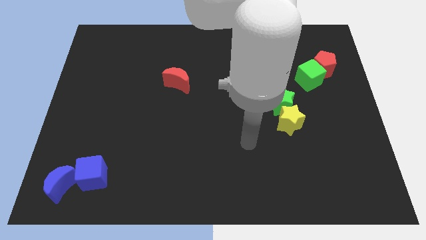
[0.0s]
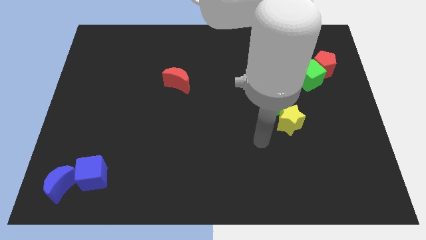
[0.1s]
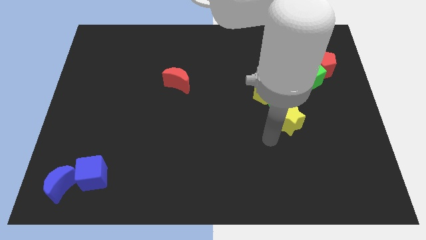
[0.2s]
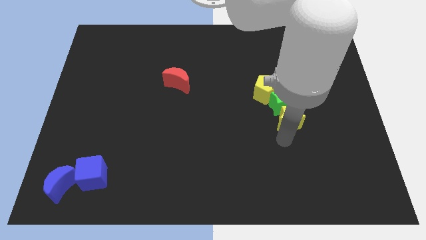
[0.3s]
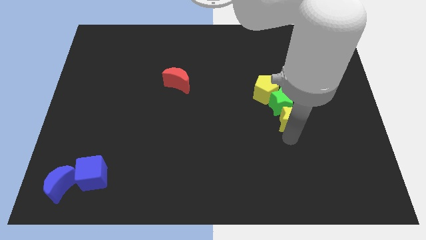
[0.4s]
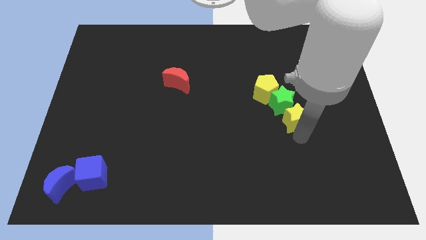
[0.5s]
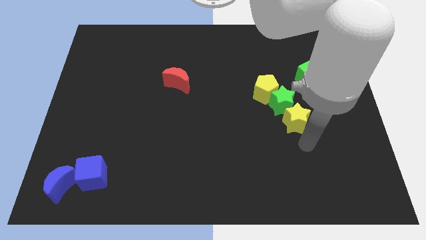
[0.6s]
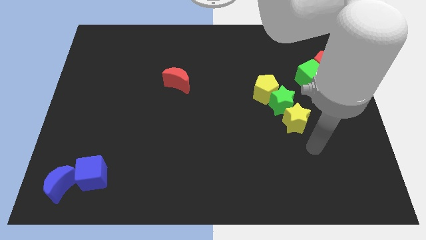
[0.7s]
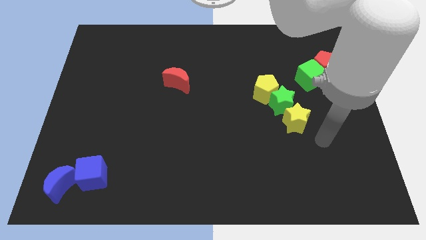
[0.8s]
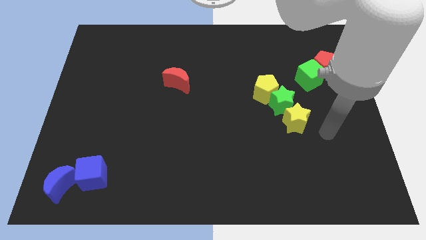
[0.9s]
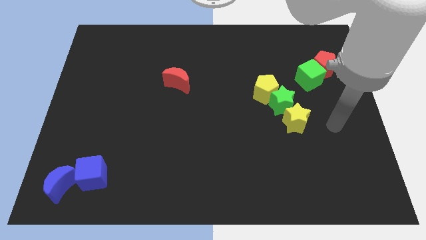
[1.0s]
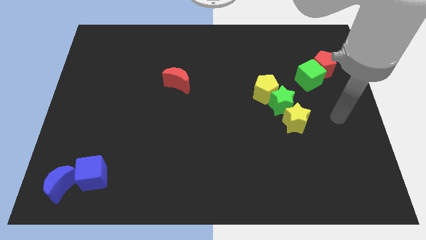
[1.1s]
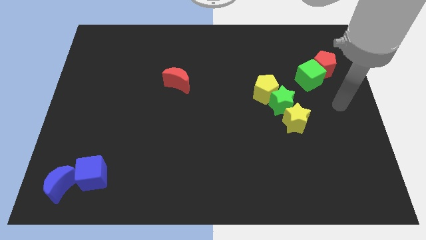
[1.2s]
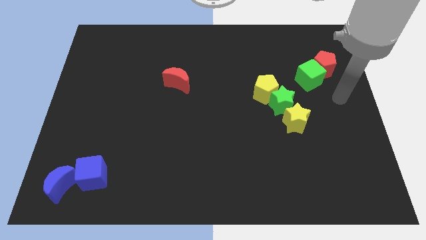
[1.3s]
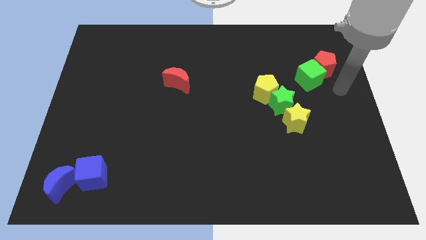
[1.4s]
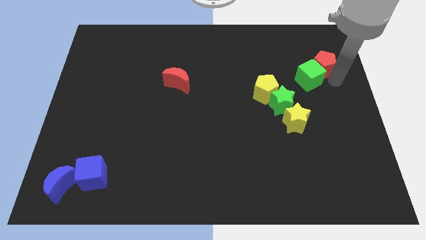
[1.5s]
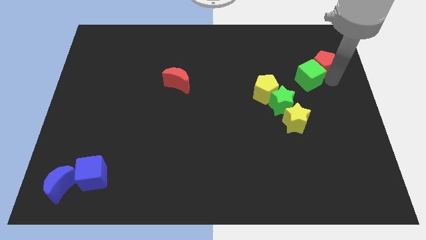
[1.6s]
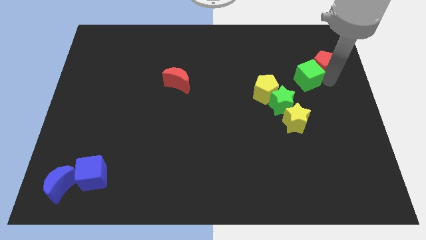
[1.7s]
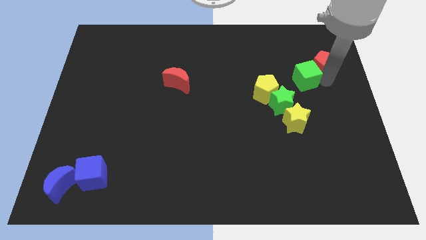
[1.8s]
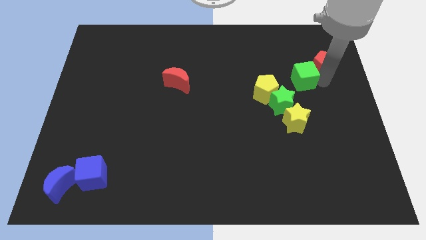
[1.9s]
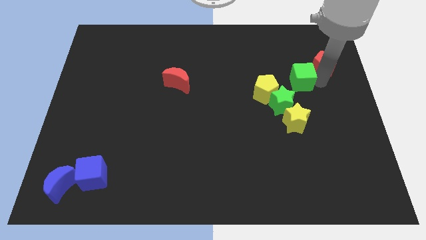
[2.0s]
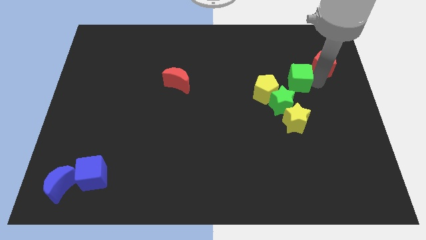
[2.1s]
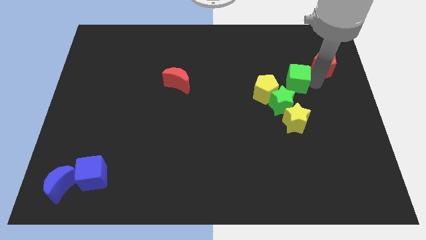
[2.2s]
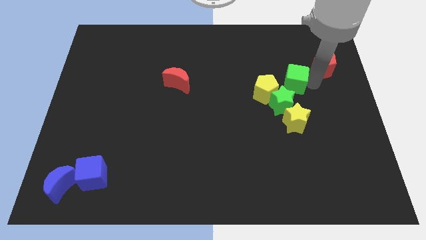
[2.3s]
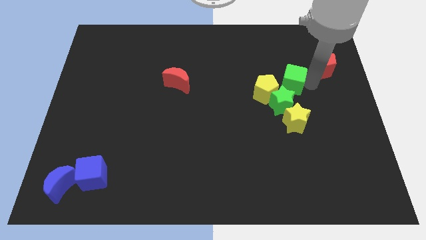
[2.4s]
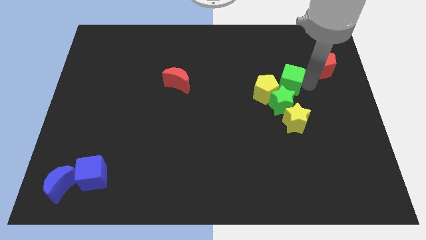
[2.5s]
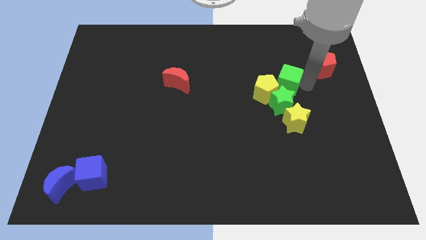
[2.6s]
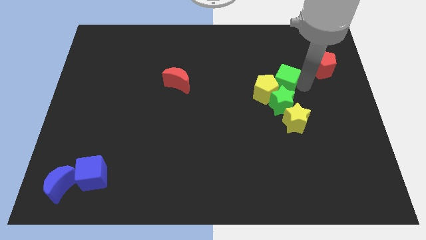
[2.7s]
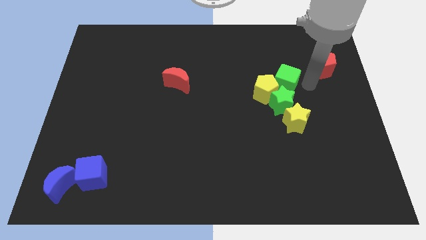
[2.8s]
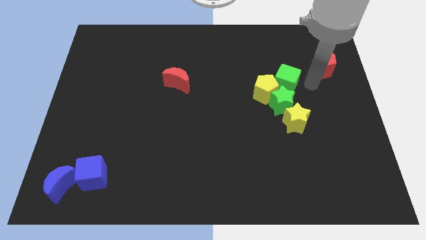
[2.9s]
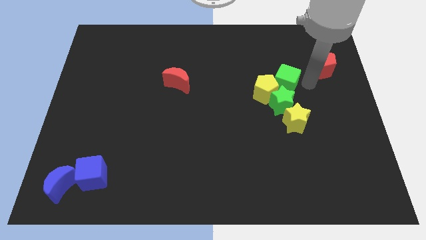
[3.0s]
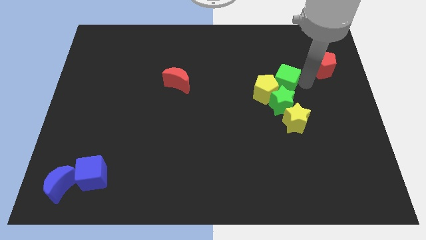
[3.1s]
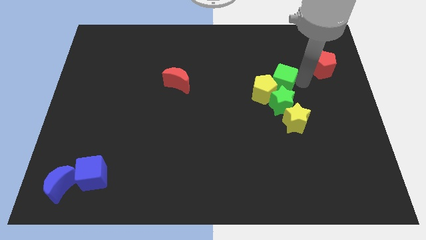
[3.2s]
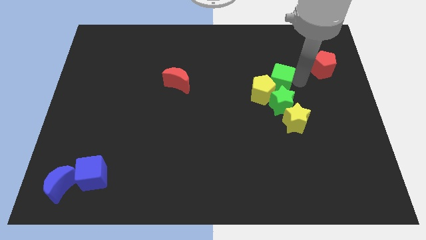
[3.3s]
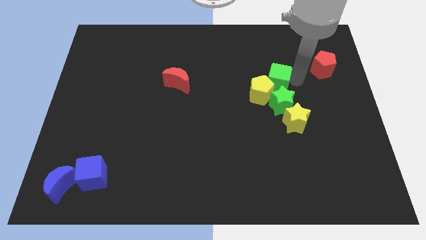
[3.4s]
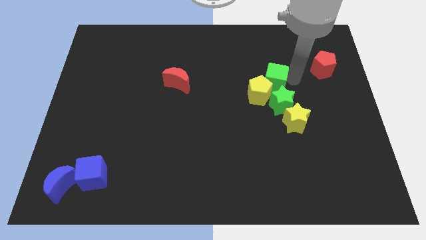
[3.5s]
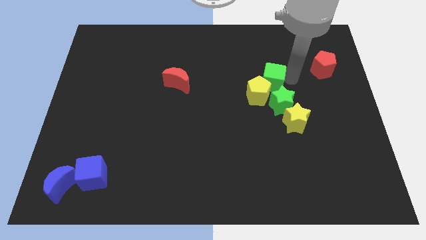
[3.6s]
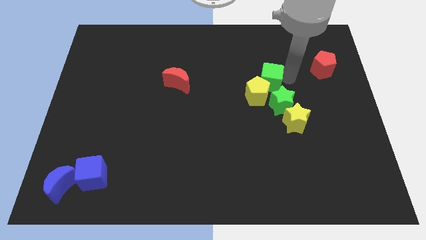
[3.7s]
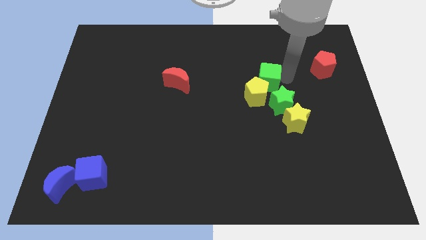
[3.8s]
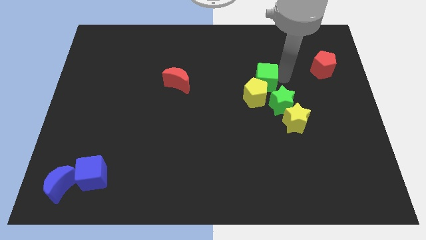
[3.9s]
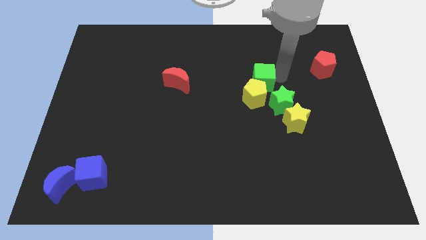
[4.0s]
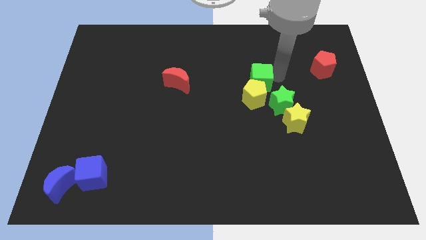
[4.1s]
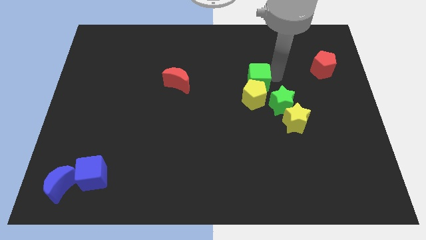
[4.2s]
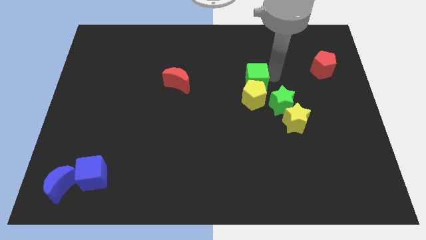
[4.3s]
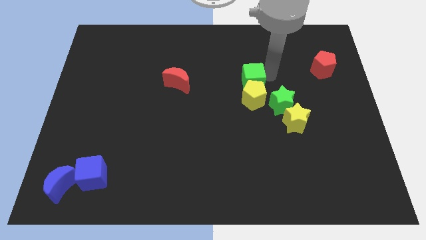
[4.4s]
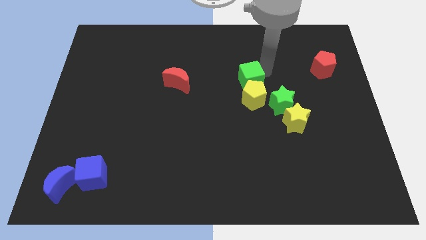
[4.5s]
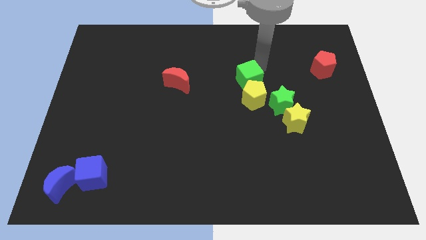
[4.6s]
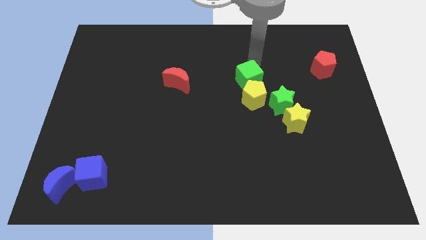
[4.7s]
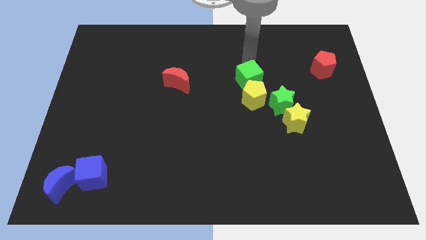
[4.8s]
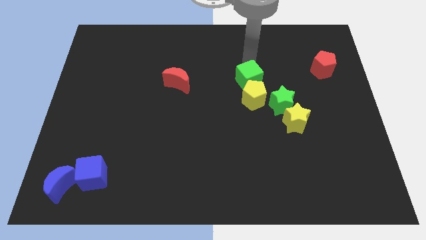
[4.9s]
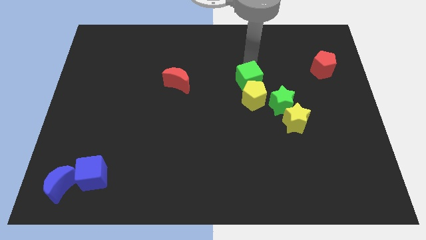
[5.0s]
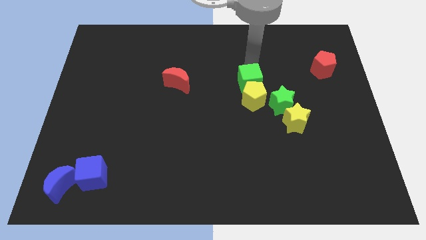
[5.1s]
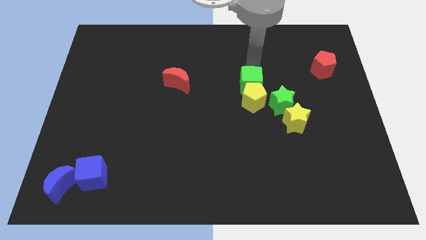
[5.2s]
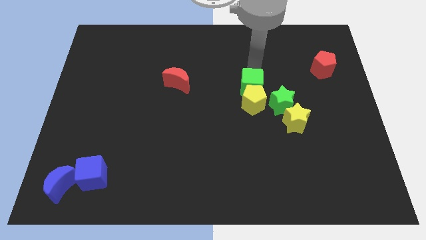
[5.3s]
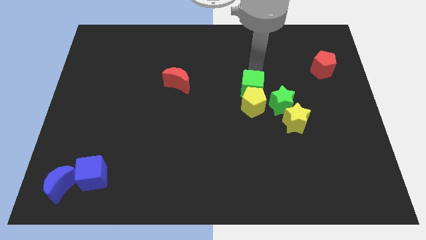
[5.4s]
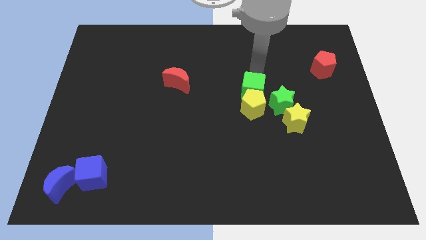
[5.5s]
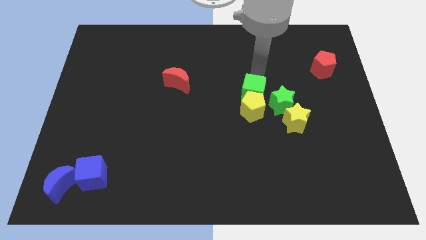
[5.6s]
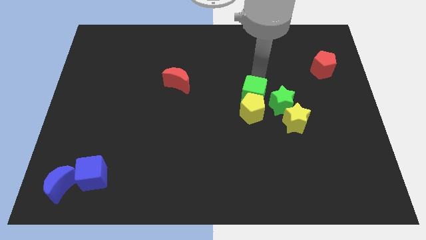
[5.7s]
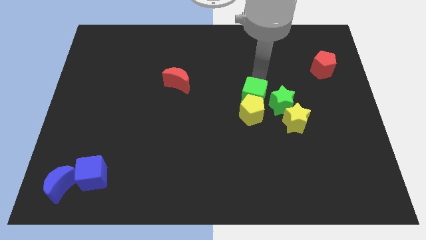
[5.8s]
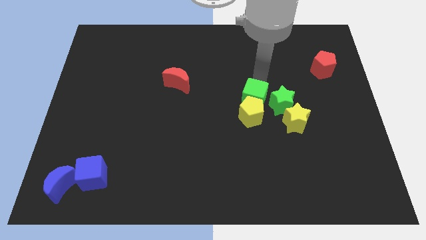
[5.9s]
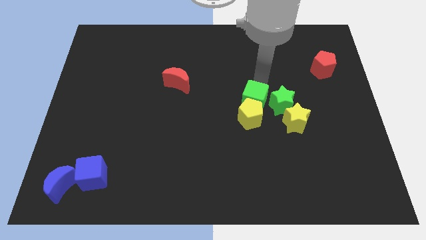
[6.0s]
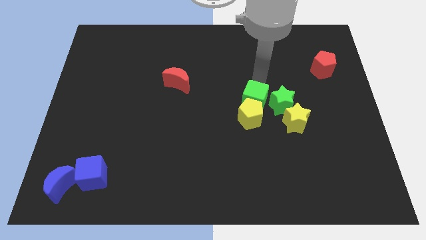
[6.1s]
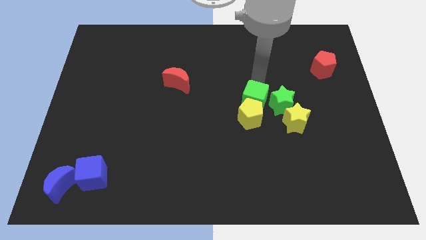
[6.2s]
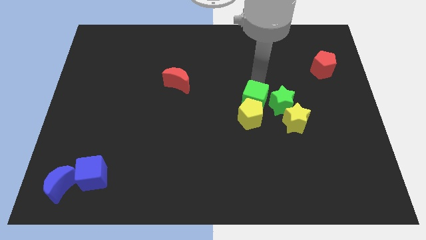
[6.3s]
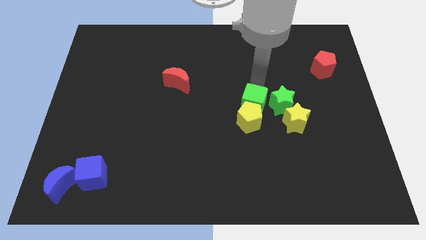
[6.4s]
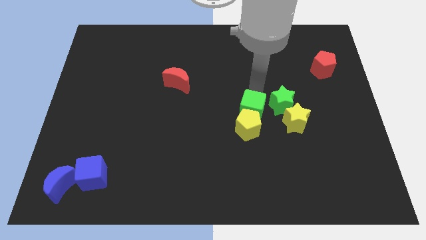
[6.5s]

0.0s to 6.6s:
put the green cube just left of the yellow star

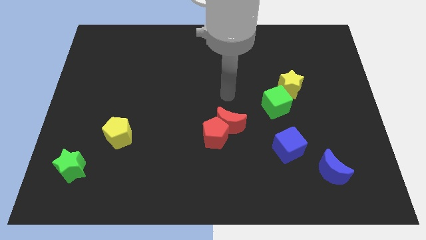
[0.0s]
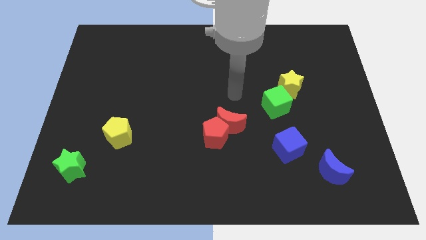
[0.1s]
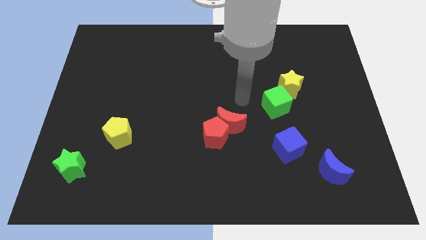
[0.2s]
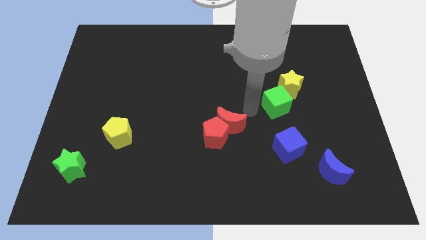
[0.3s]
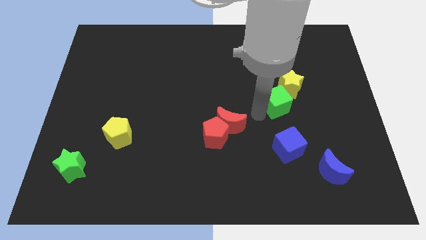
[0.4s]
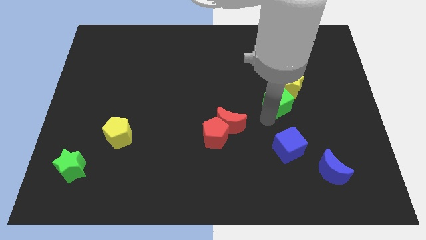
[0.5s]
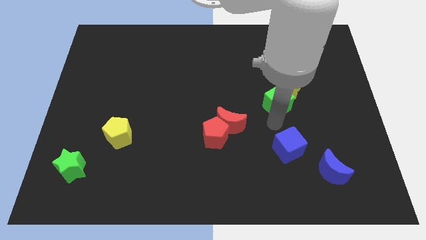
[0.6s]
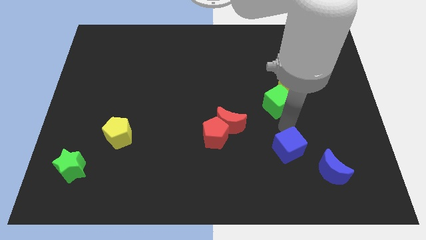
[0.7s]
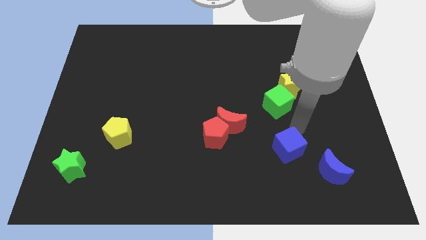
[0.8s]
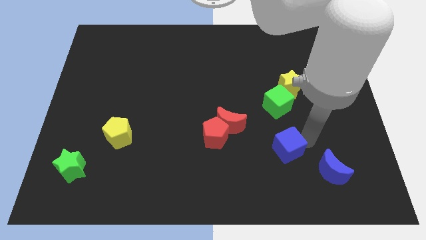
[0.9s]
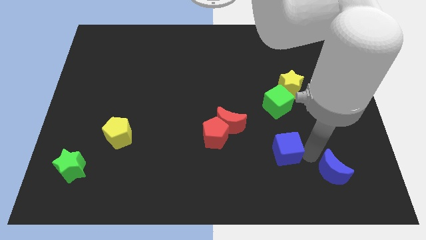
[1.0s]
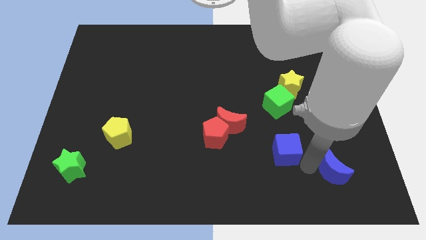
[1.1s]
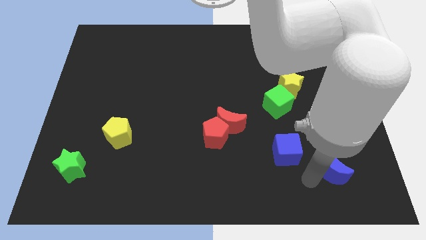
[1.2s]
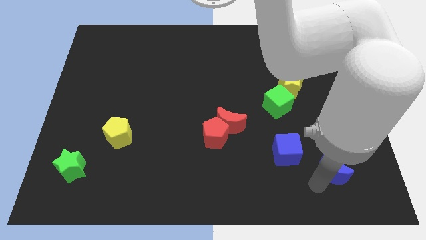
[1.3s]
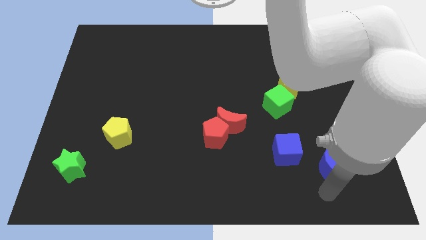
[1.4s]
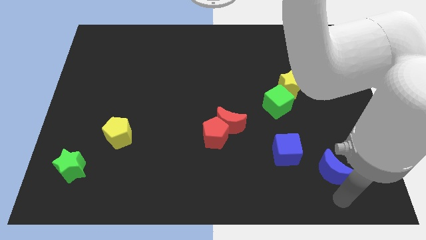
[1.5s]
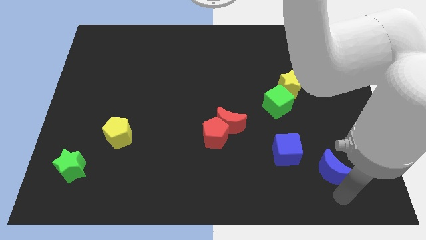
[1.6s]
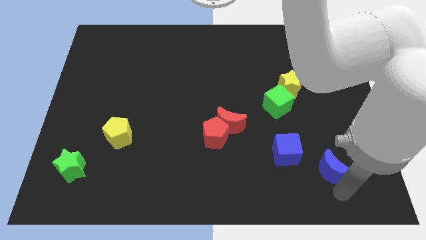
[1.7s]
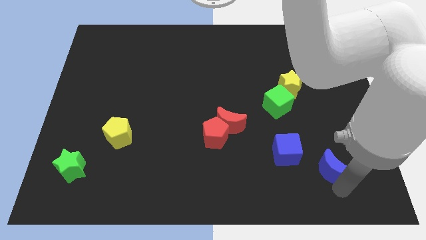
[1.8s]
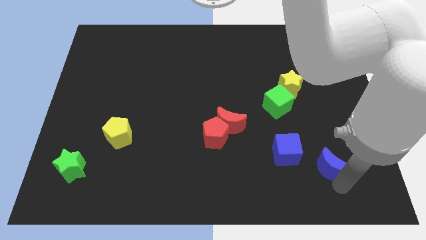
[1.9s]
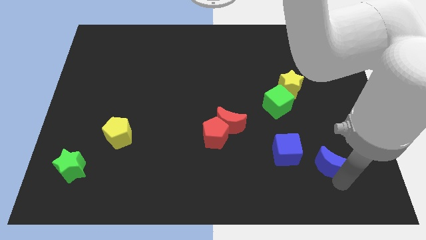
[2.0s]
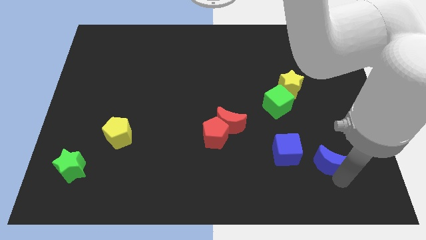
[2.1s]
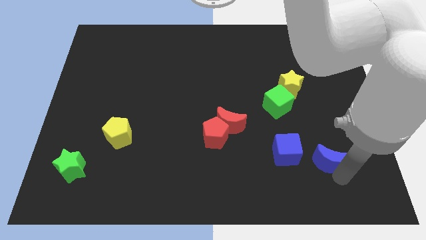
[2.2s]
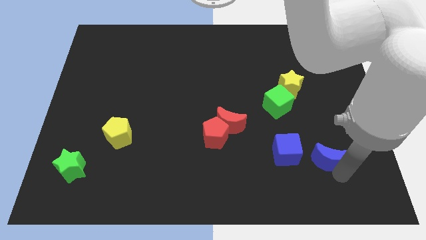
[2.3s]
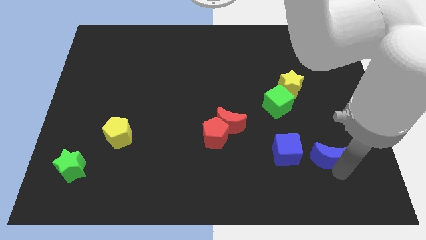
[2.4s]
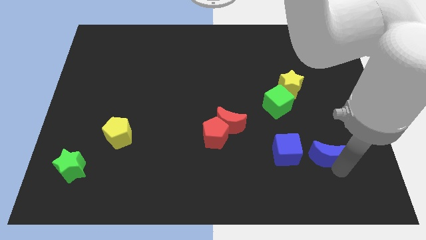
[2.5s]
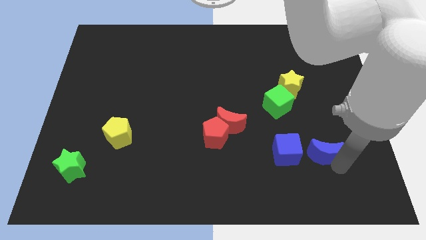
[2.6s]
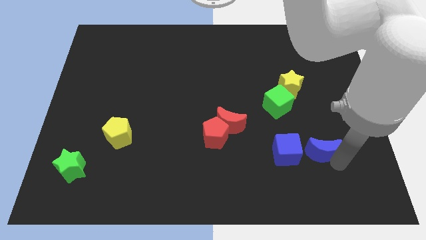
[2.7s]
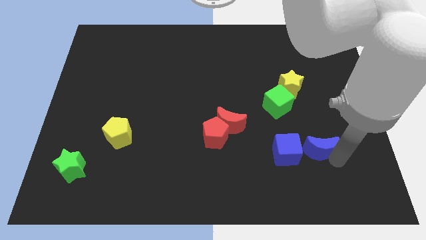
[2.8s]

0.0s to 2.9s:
move the blue moon to the top right side of the blue cube
